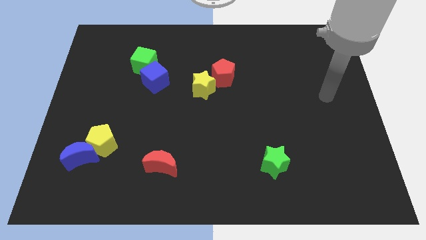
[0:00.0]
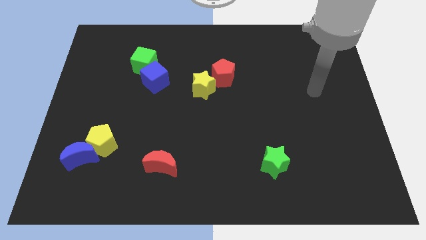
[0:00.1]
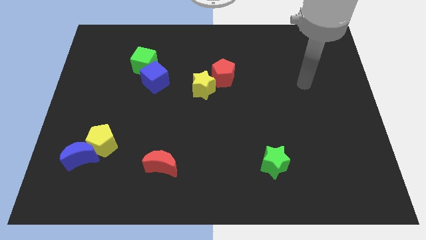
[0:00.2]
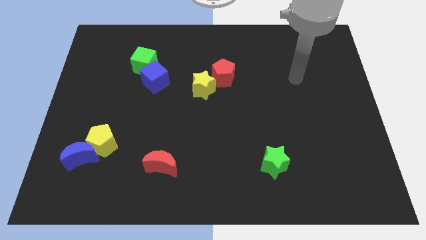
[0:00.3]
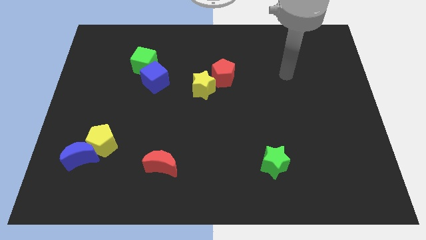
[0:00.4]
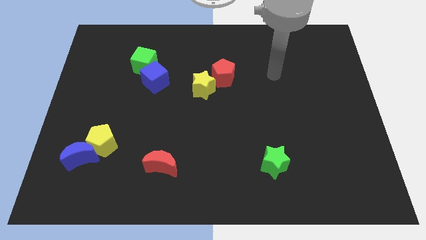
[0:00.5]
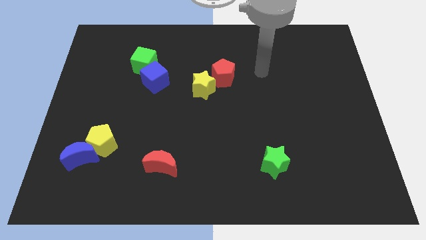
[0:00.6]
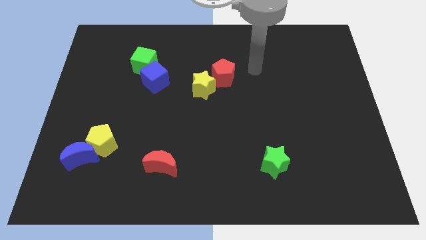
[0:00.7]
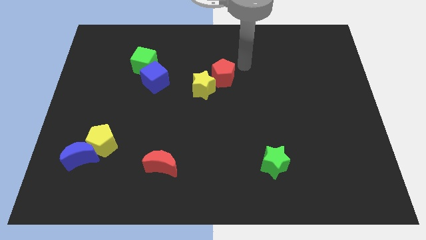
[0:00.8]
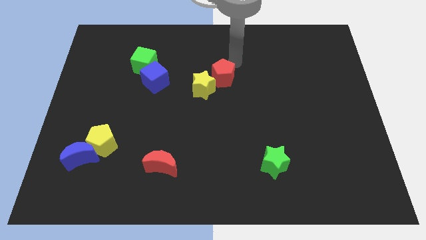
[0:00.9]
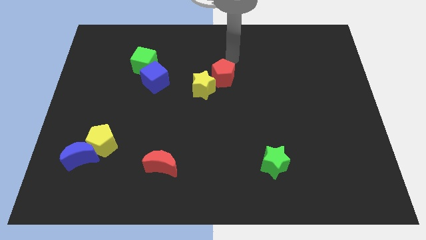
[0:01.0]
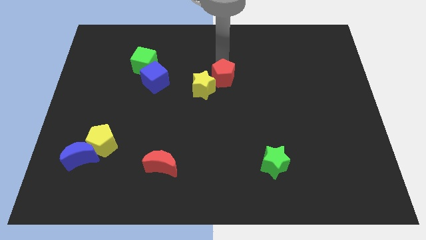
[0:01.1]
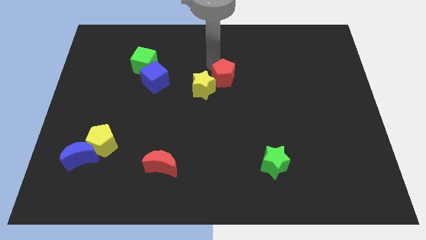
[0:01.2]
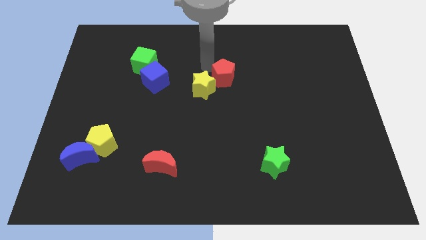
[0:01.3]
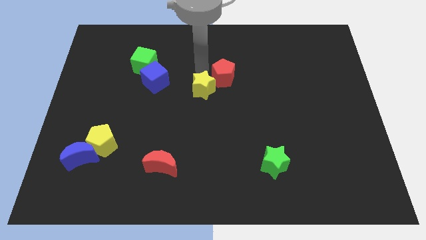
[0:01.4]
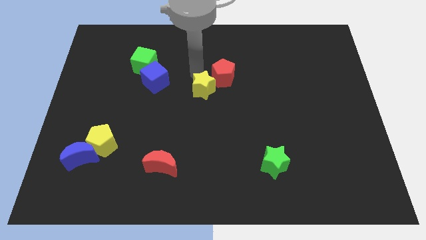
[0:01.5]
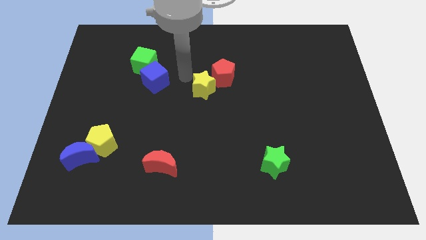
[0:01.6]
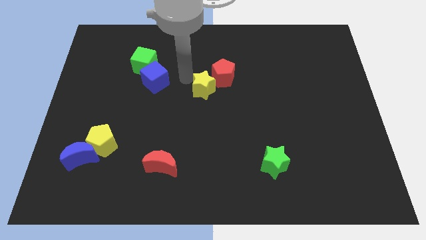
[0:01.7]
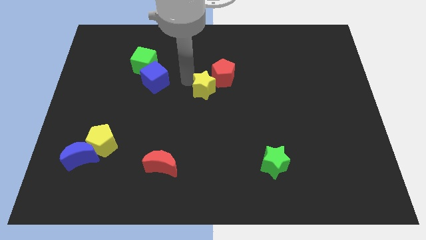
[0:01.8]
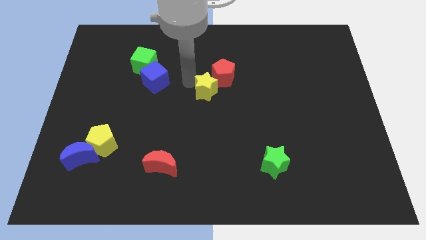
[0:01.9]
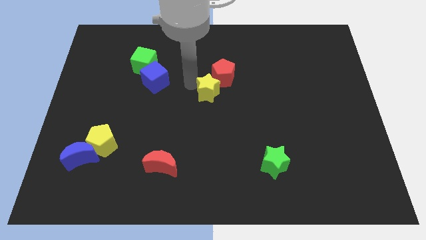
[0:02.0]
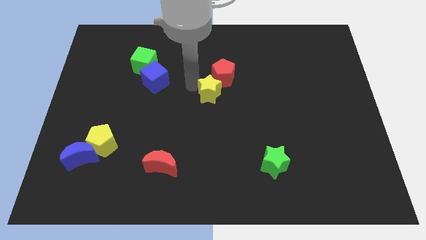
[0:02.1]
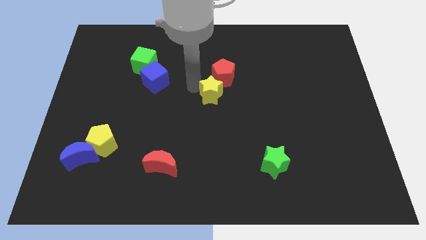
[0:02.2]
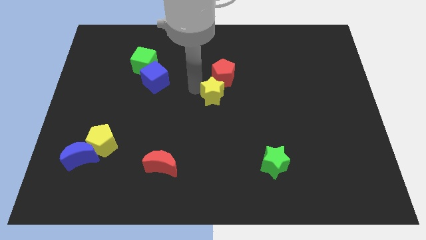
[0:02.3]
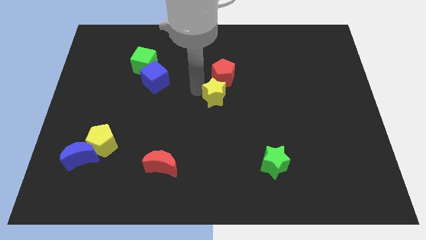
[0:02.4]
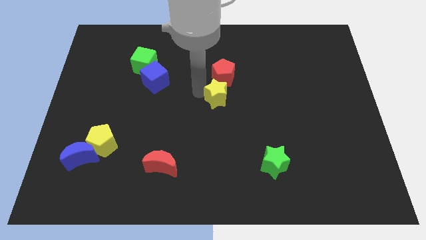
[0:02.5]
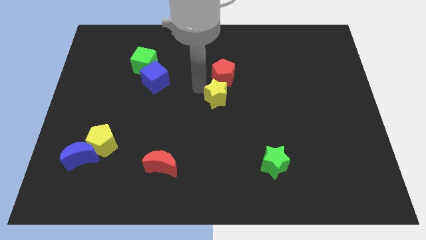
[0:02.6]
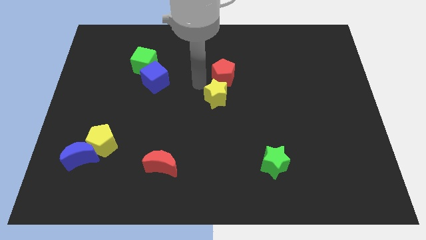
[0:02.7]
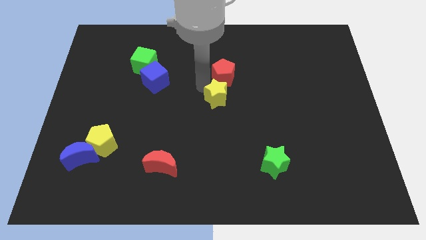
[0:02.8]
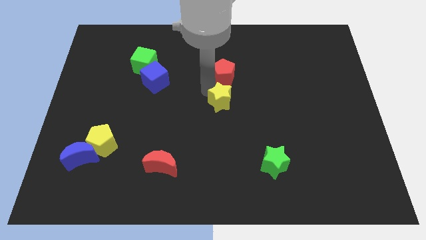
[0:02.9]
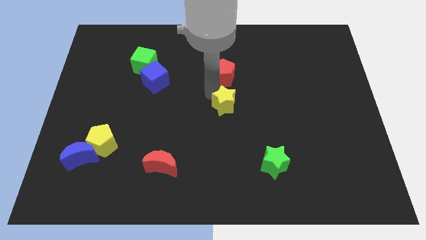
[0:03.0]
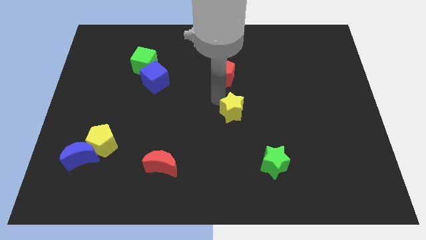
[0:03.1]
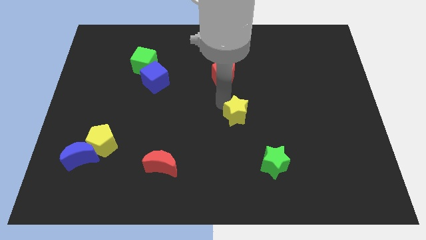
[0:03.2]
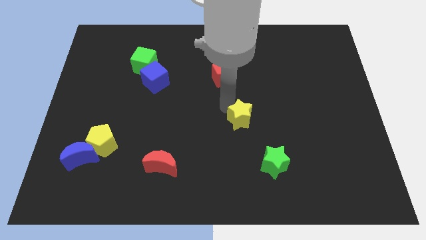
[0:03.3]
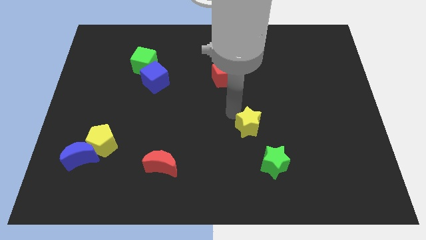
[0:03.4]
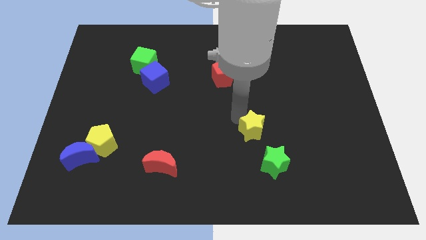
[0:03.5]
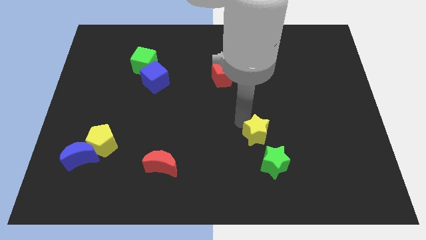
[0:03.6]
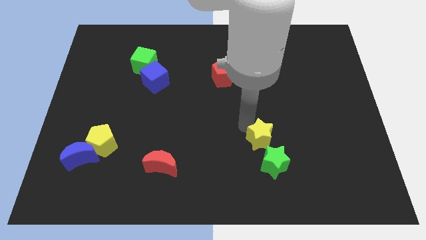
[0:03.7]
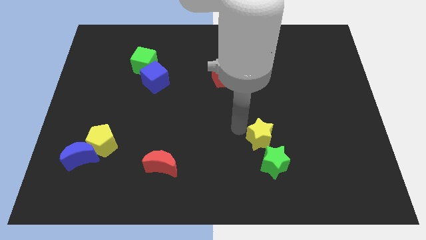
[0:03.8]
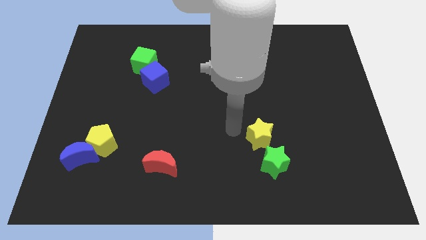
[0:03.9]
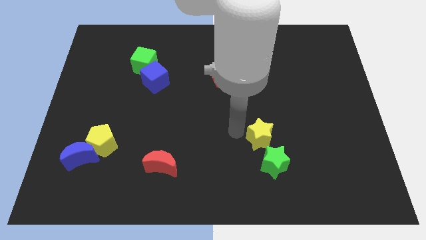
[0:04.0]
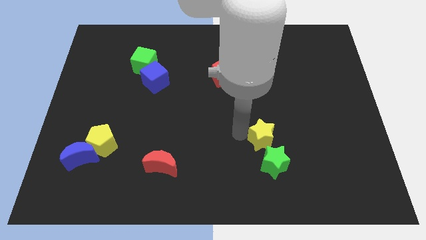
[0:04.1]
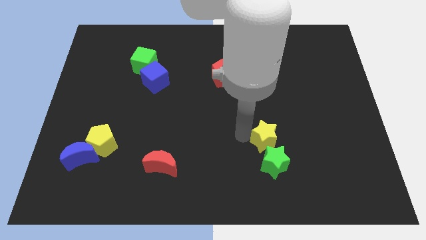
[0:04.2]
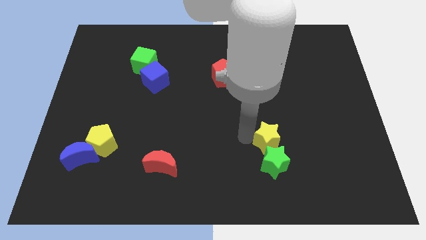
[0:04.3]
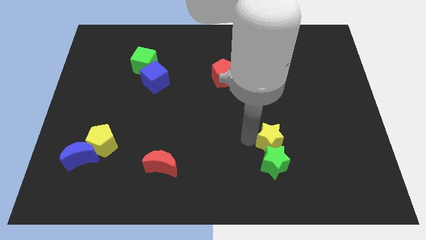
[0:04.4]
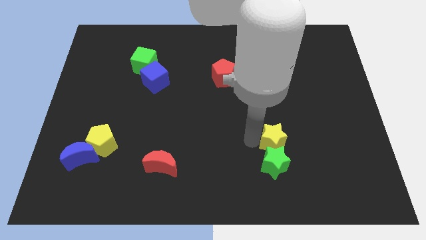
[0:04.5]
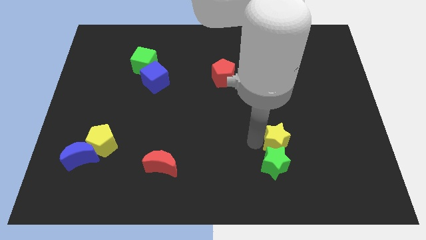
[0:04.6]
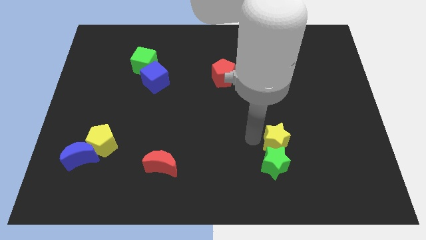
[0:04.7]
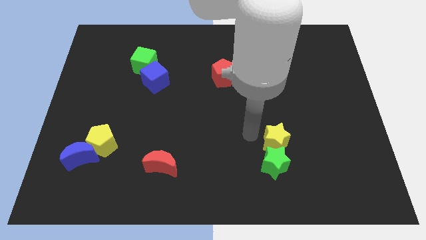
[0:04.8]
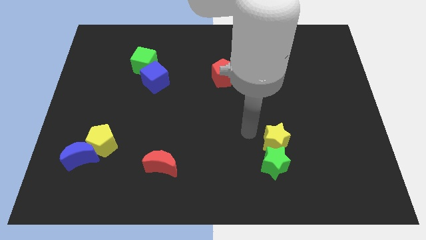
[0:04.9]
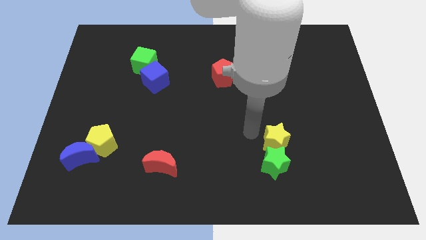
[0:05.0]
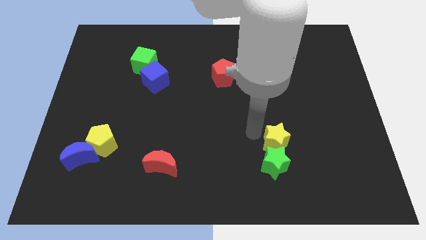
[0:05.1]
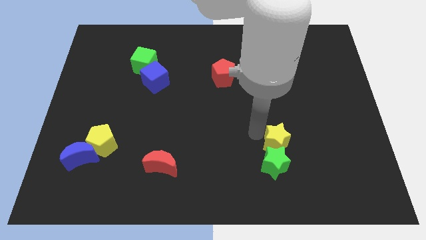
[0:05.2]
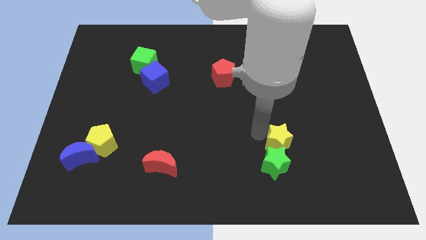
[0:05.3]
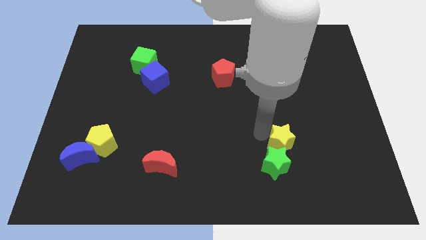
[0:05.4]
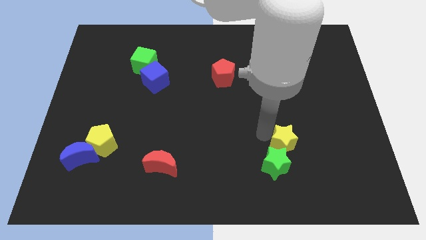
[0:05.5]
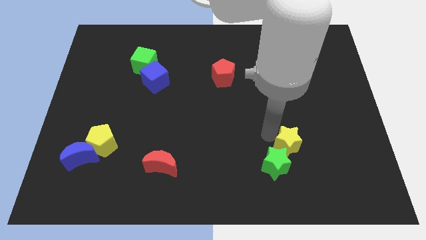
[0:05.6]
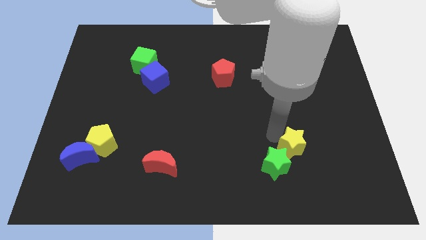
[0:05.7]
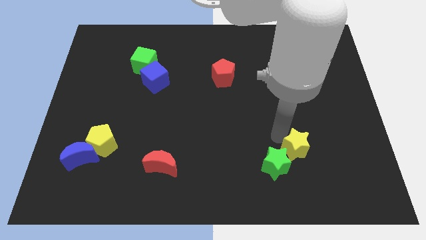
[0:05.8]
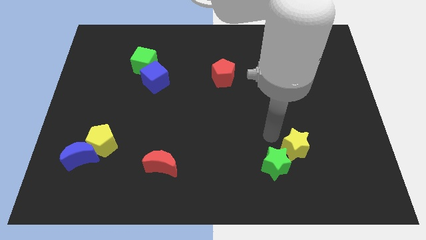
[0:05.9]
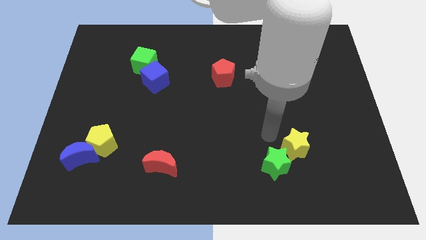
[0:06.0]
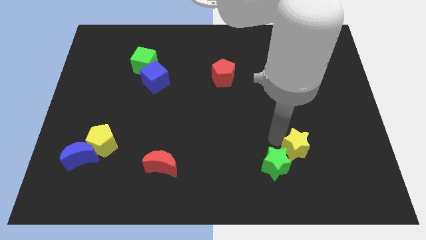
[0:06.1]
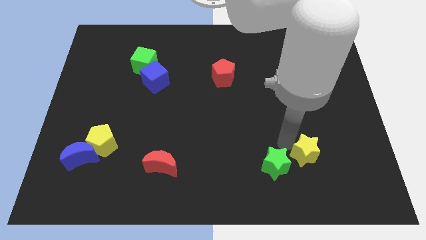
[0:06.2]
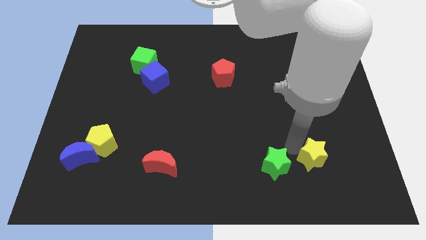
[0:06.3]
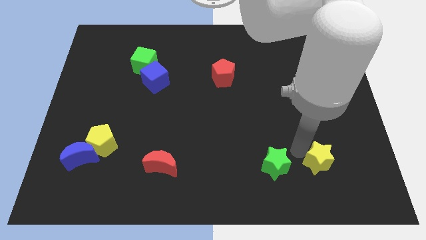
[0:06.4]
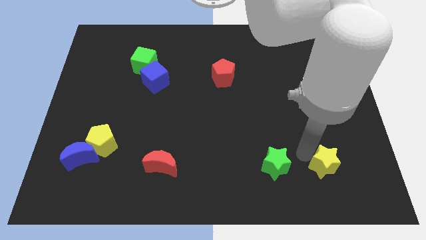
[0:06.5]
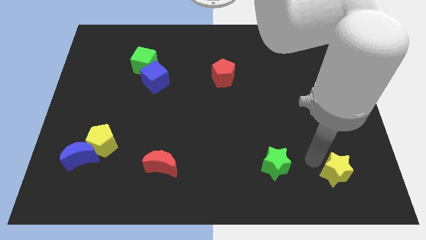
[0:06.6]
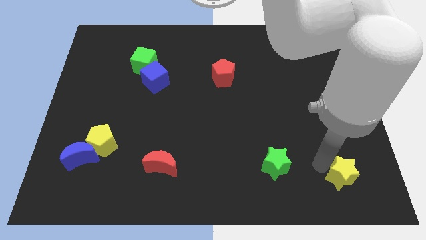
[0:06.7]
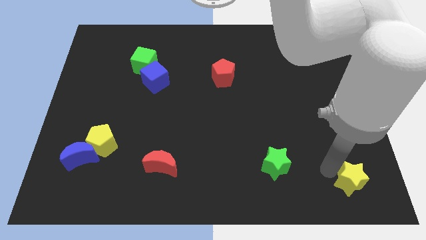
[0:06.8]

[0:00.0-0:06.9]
slide the yellow star to the lower right corner
